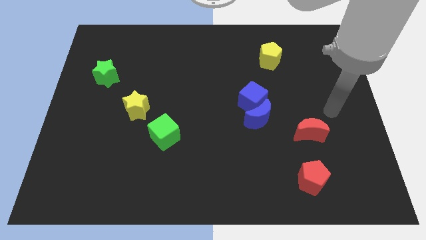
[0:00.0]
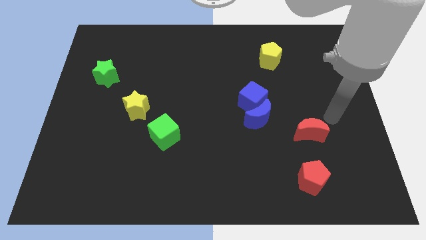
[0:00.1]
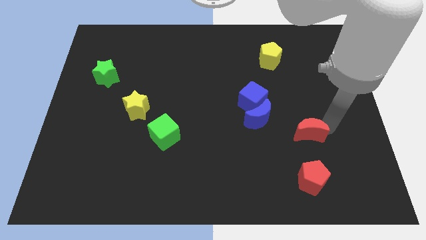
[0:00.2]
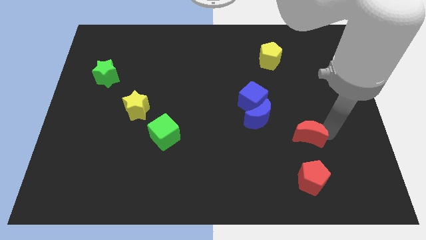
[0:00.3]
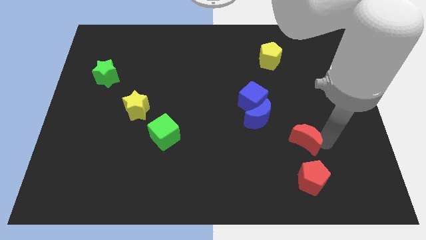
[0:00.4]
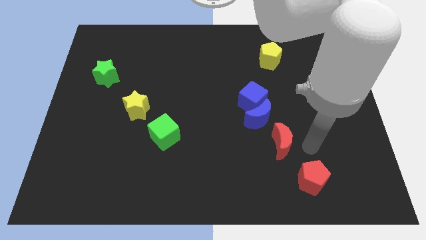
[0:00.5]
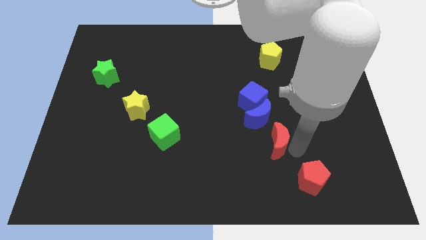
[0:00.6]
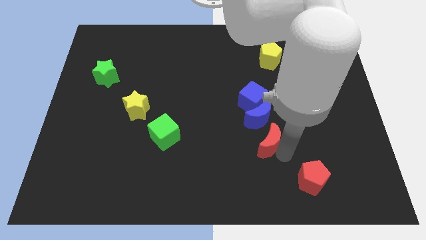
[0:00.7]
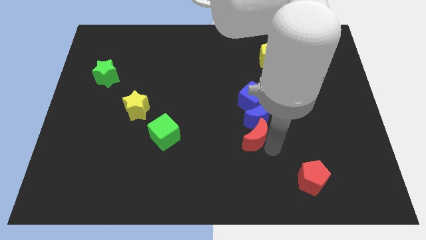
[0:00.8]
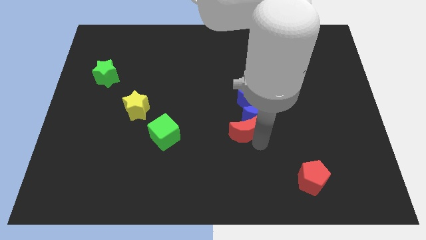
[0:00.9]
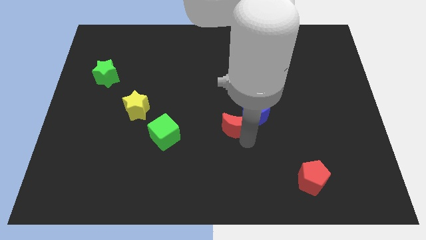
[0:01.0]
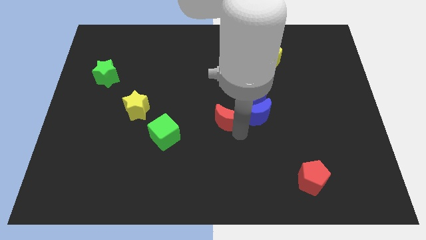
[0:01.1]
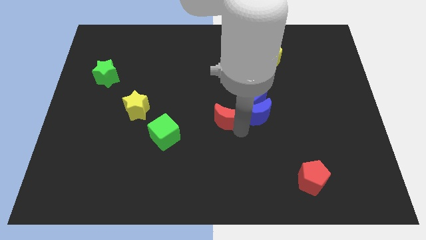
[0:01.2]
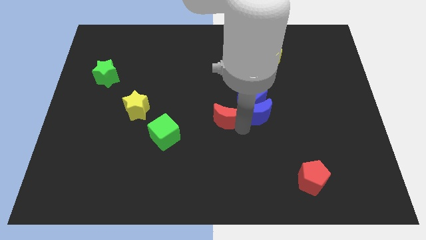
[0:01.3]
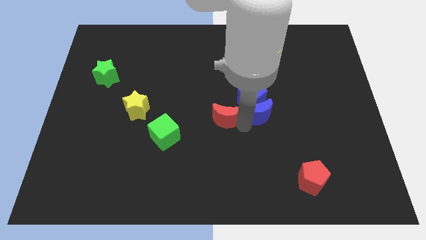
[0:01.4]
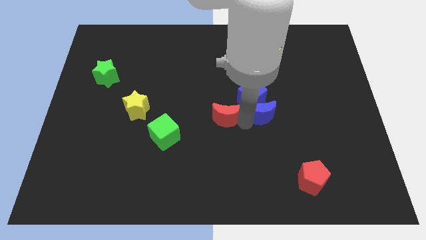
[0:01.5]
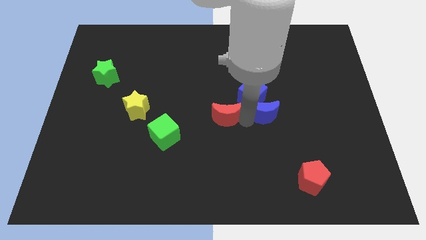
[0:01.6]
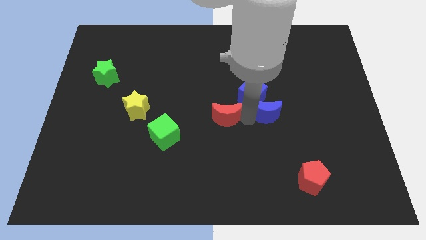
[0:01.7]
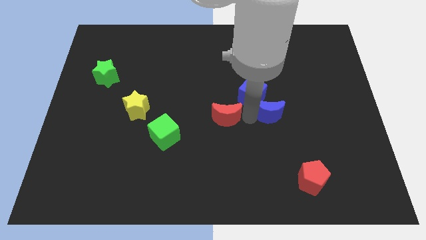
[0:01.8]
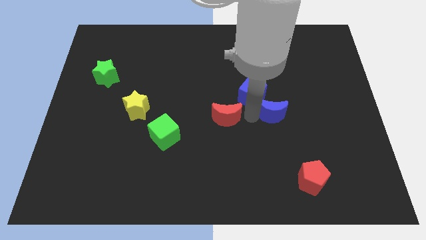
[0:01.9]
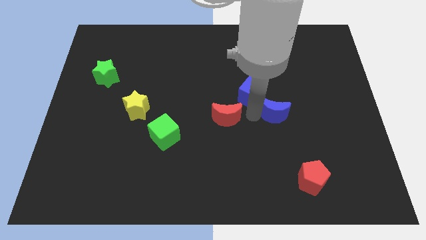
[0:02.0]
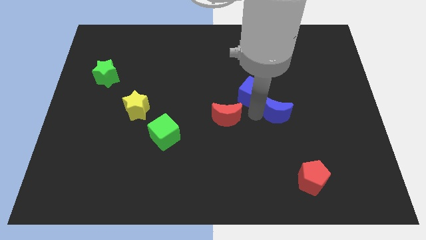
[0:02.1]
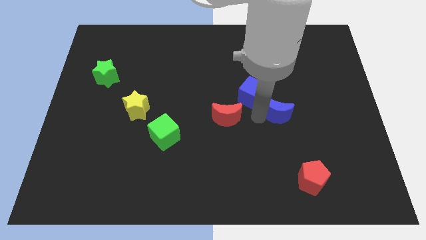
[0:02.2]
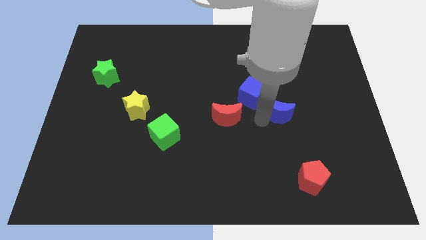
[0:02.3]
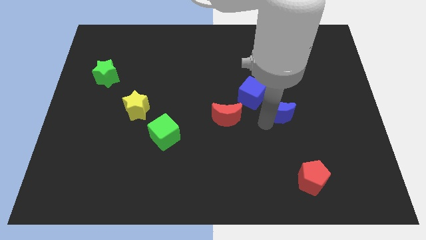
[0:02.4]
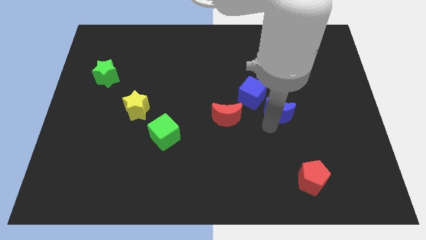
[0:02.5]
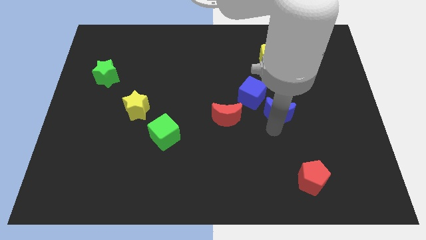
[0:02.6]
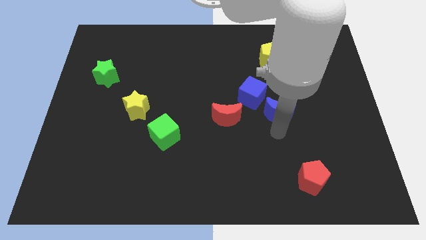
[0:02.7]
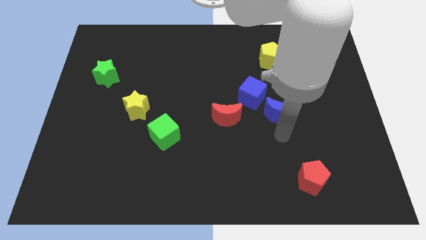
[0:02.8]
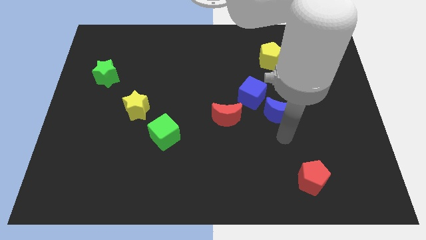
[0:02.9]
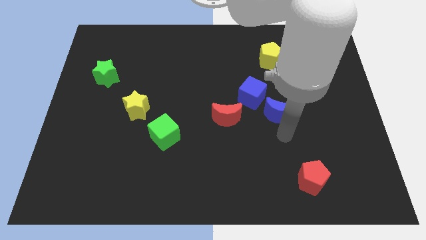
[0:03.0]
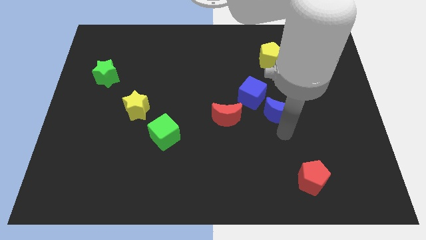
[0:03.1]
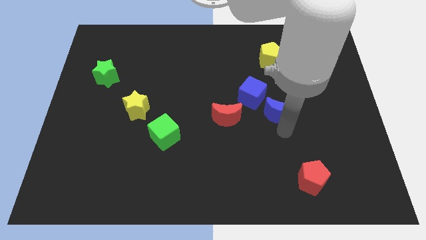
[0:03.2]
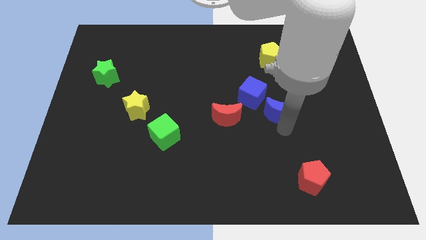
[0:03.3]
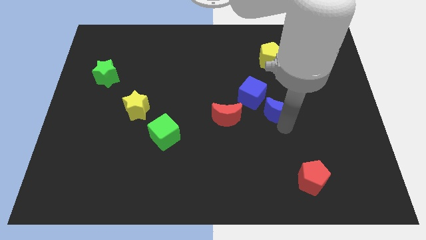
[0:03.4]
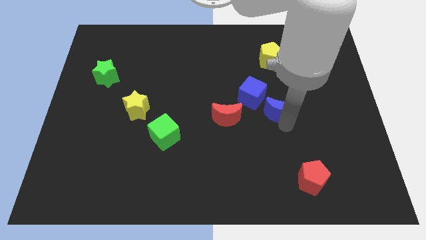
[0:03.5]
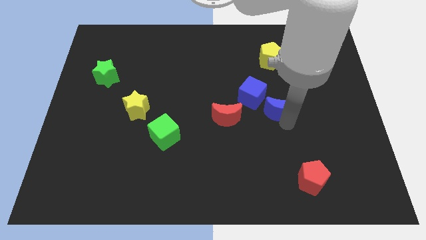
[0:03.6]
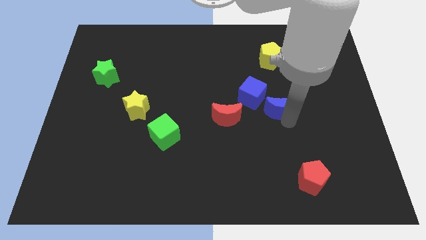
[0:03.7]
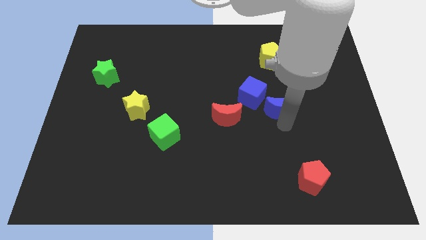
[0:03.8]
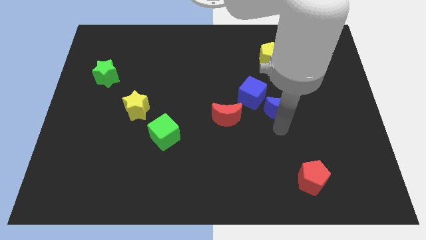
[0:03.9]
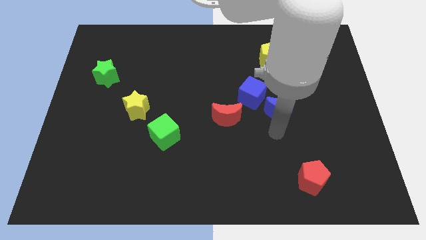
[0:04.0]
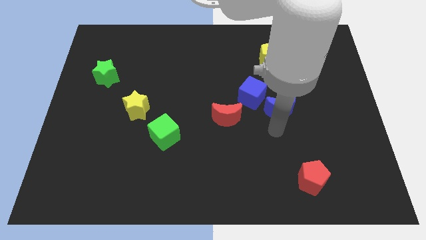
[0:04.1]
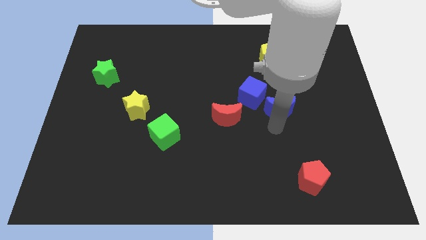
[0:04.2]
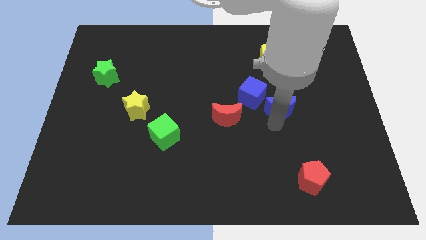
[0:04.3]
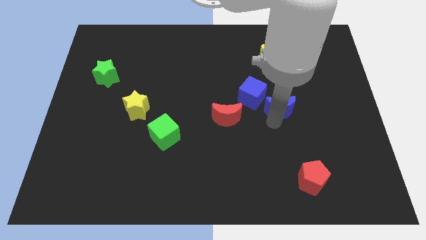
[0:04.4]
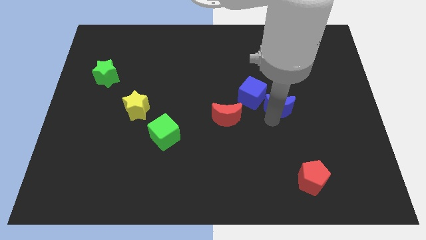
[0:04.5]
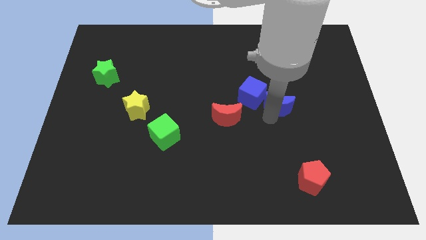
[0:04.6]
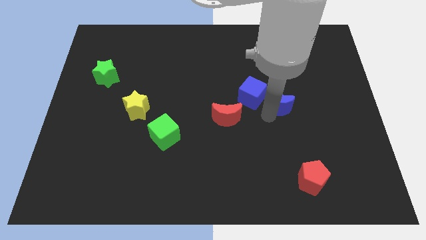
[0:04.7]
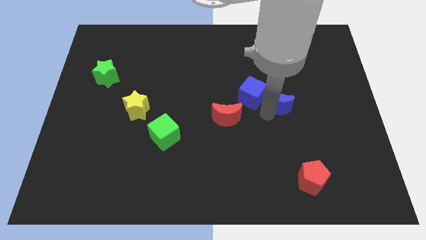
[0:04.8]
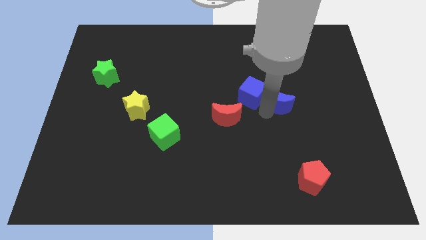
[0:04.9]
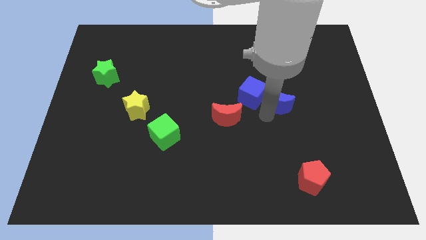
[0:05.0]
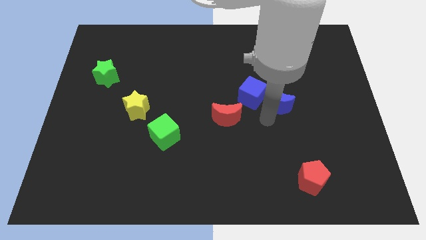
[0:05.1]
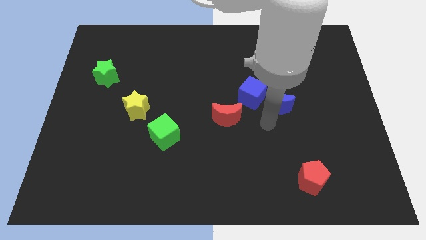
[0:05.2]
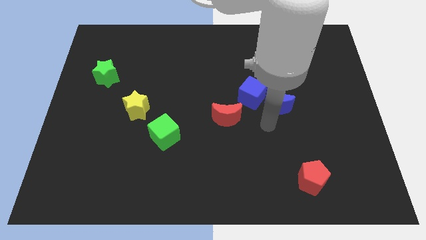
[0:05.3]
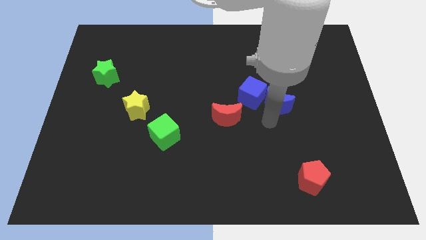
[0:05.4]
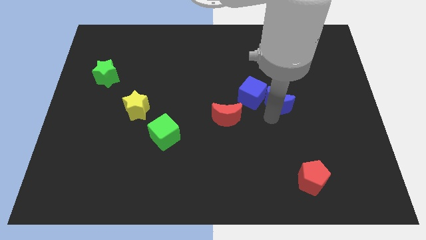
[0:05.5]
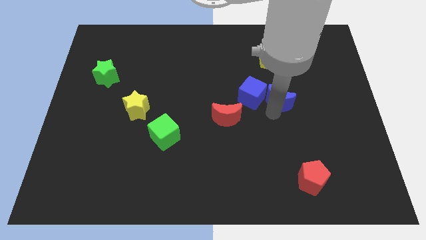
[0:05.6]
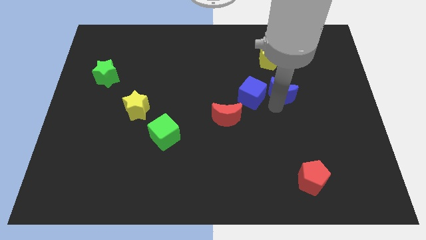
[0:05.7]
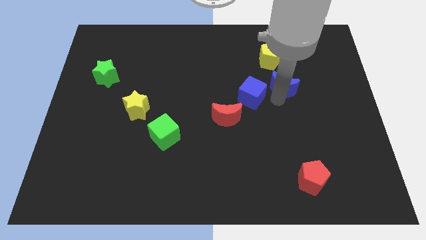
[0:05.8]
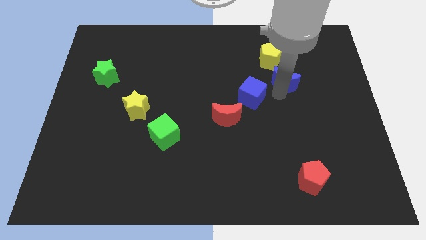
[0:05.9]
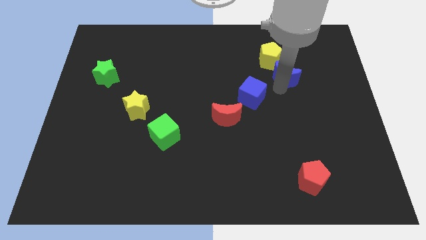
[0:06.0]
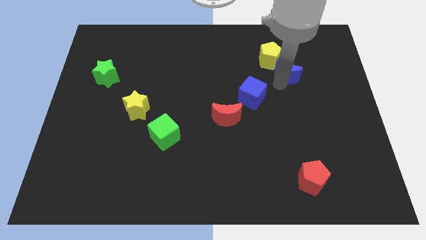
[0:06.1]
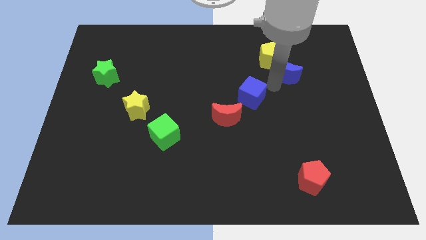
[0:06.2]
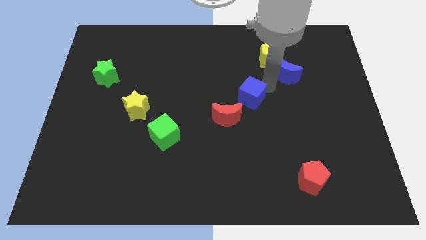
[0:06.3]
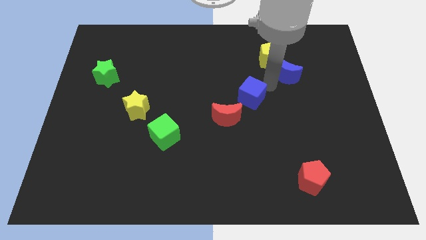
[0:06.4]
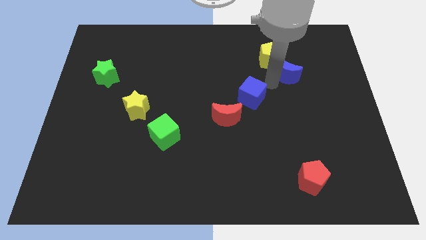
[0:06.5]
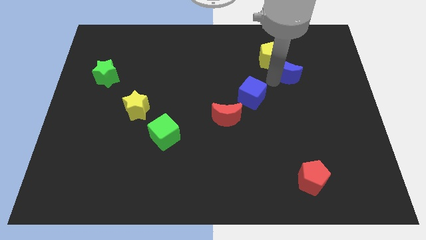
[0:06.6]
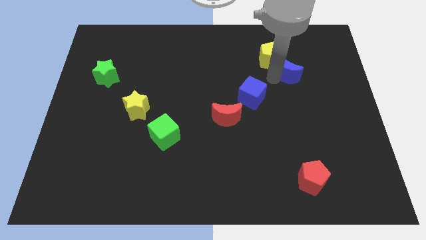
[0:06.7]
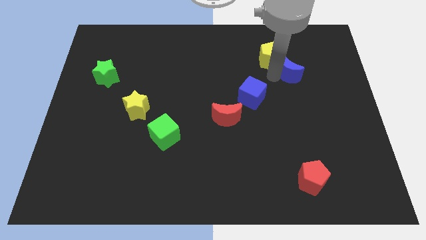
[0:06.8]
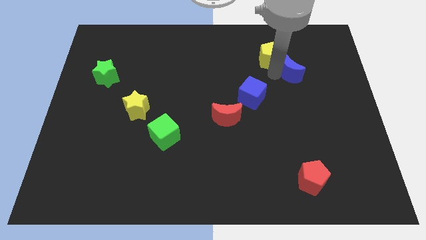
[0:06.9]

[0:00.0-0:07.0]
push the blue moon right of the yellow pentagon

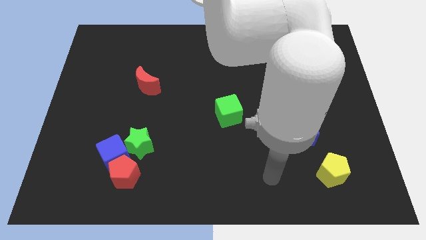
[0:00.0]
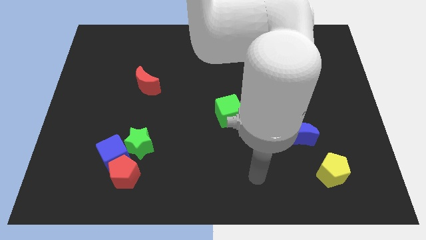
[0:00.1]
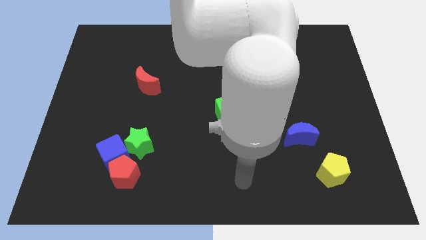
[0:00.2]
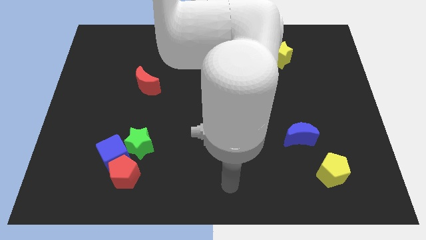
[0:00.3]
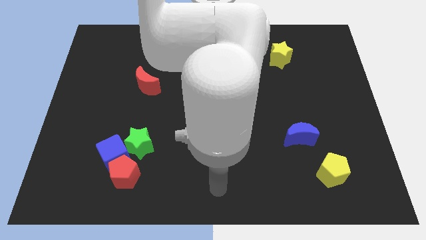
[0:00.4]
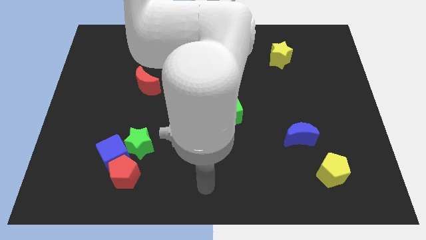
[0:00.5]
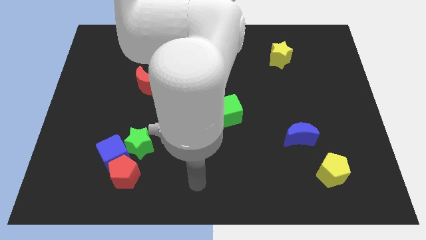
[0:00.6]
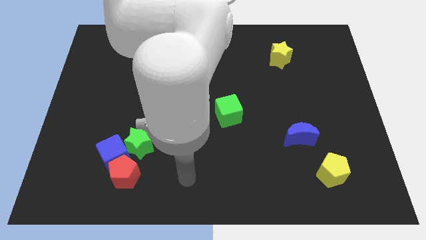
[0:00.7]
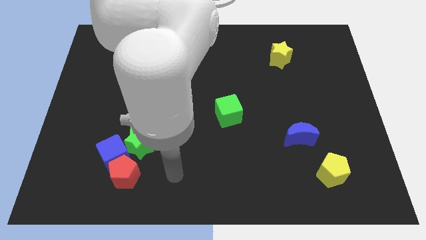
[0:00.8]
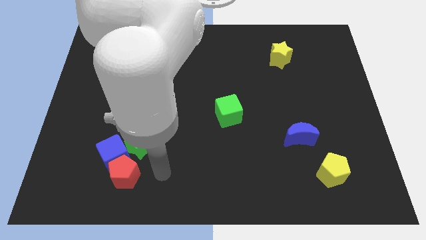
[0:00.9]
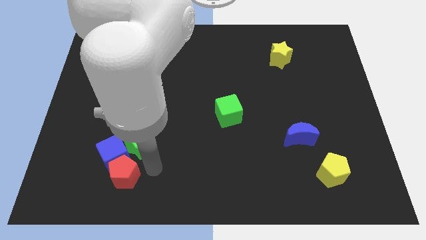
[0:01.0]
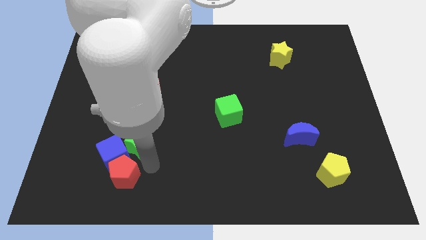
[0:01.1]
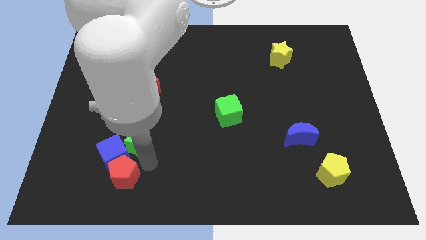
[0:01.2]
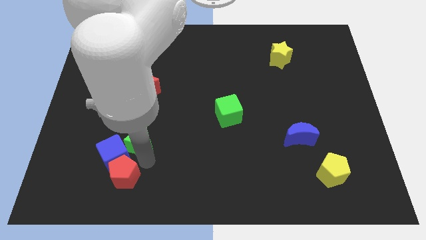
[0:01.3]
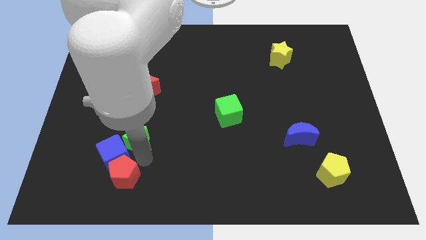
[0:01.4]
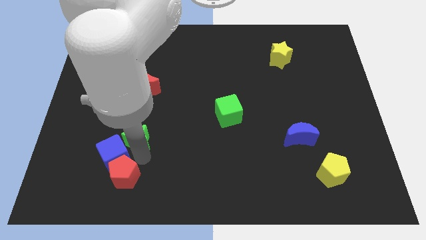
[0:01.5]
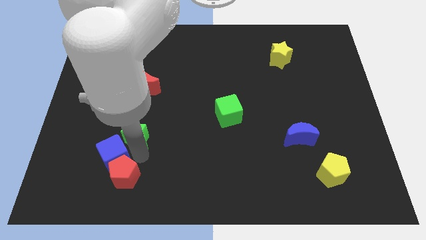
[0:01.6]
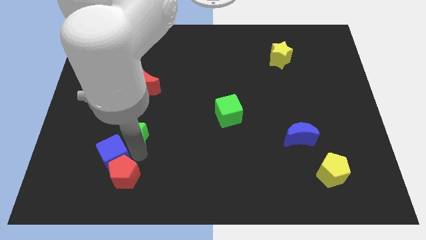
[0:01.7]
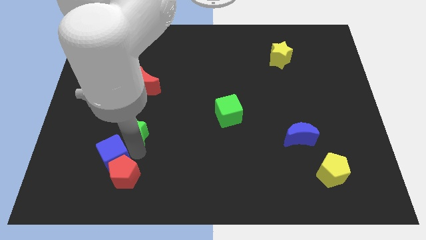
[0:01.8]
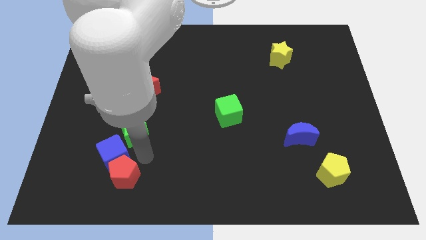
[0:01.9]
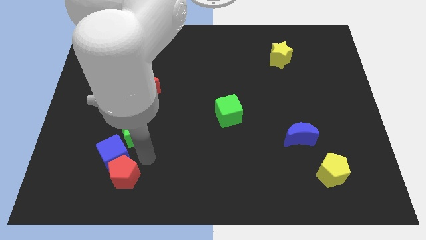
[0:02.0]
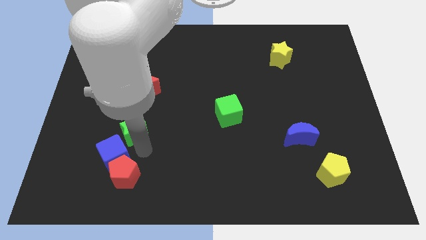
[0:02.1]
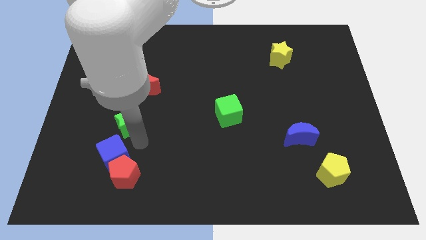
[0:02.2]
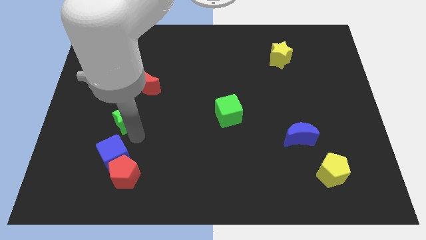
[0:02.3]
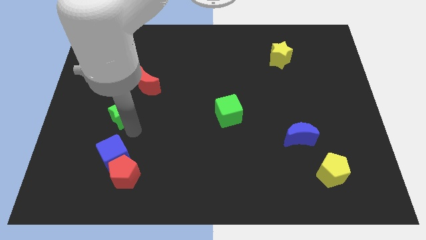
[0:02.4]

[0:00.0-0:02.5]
move the green star to the bottom left side of the red moon
